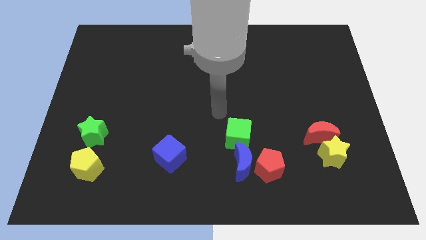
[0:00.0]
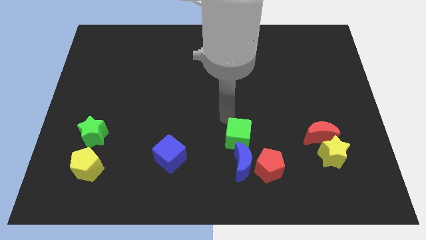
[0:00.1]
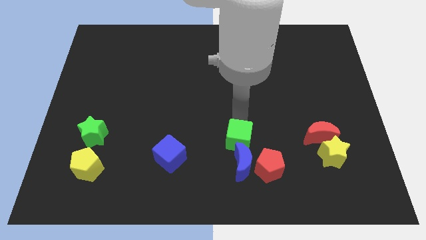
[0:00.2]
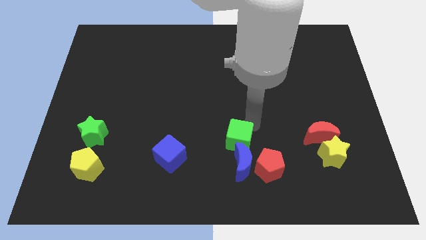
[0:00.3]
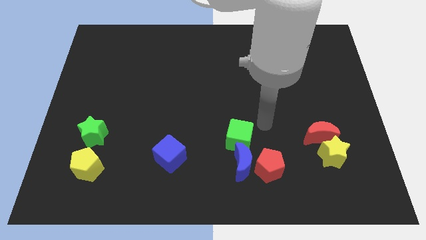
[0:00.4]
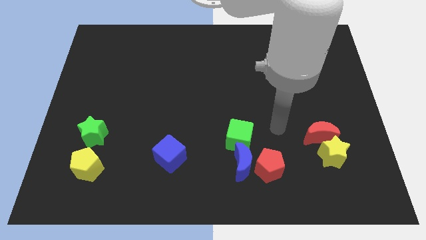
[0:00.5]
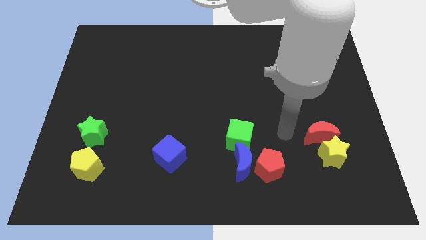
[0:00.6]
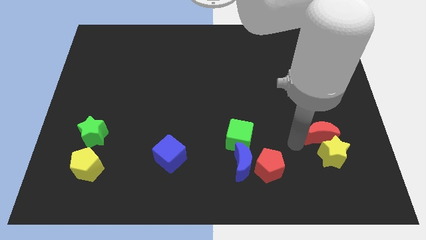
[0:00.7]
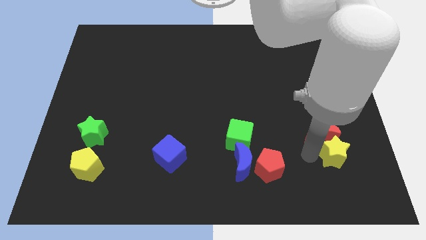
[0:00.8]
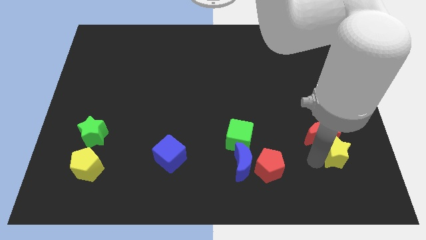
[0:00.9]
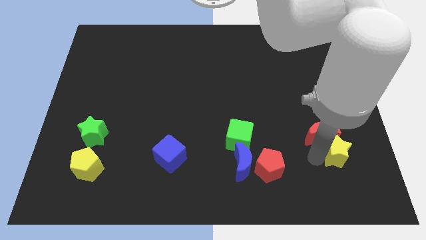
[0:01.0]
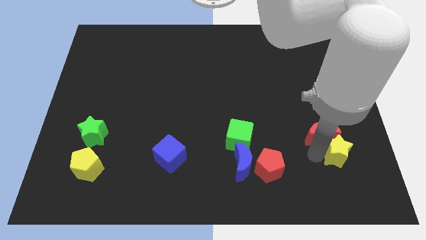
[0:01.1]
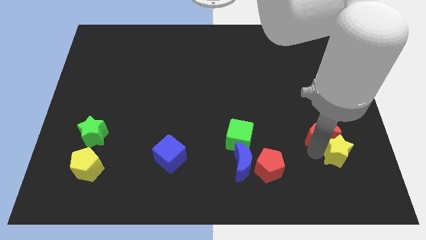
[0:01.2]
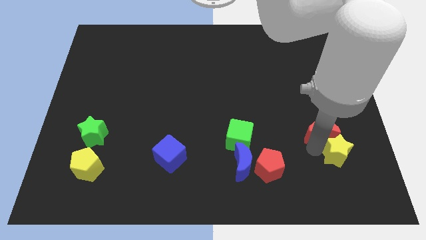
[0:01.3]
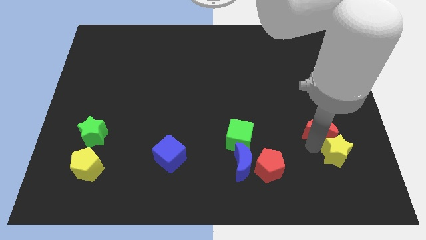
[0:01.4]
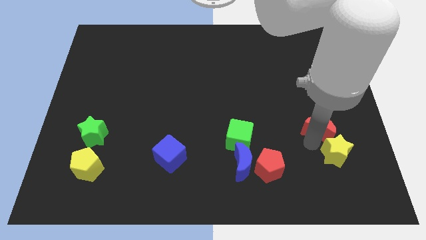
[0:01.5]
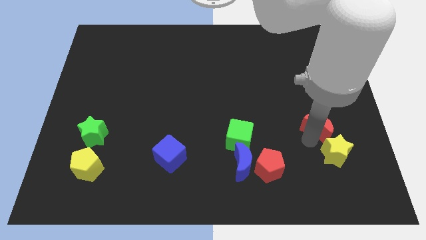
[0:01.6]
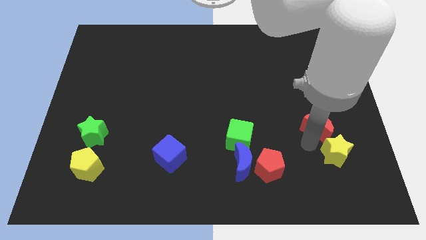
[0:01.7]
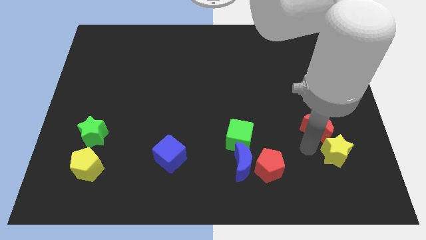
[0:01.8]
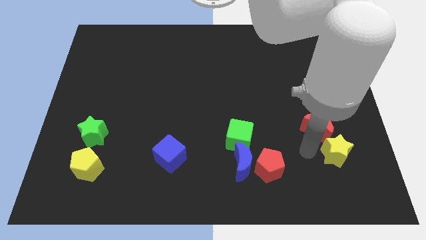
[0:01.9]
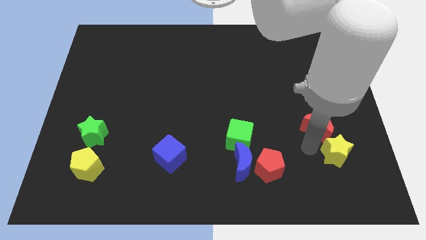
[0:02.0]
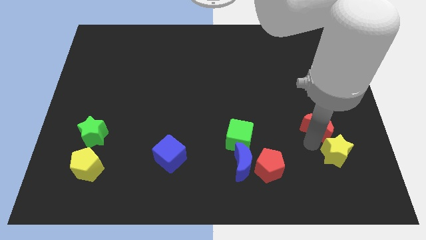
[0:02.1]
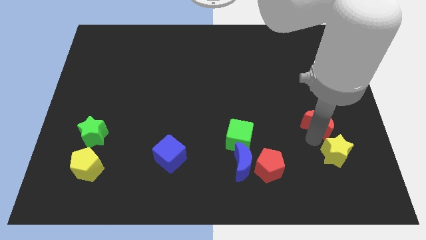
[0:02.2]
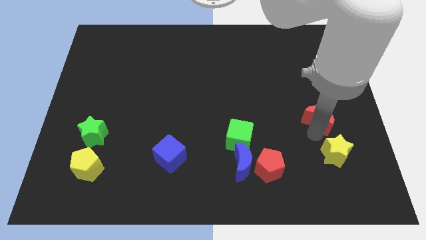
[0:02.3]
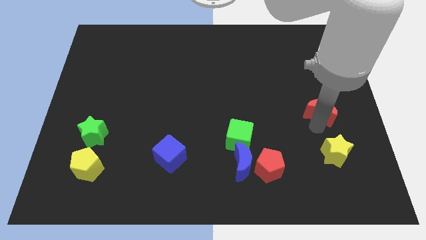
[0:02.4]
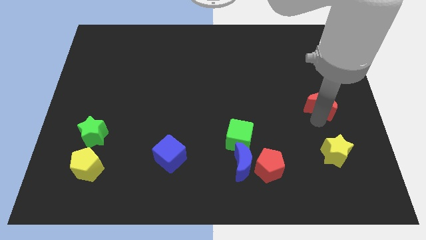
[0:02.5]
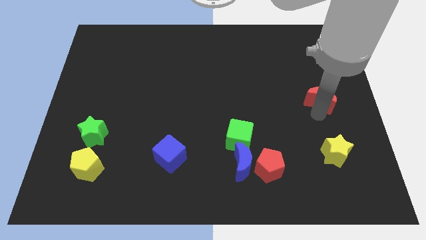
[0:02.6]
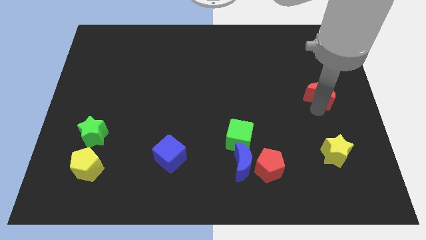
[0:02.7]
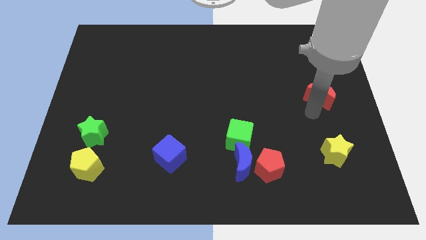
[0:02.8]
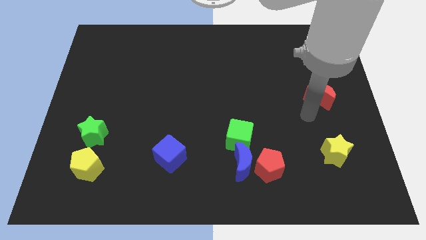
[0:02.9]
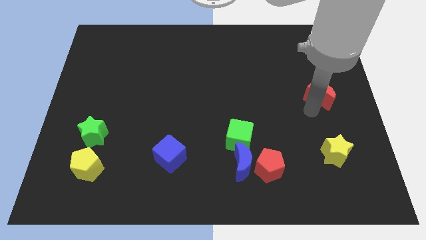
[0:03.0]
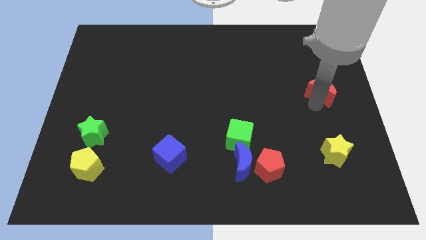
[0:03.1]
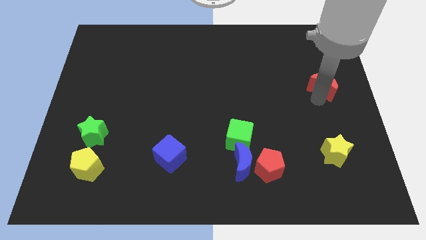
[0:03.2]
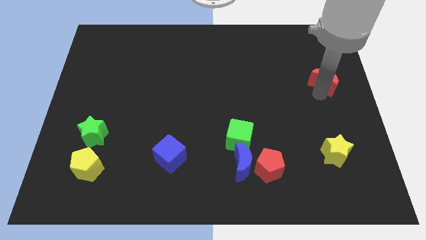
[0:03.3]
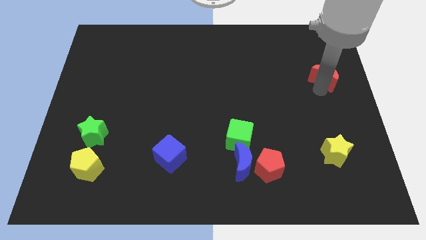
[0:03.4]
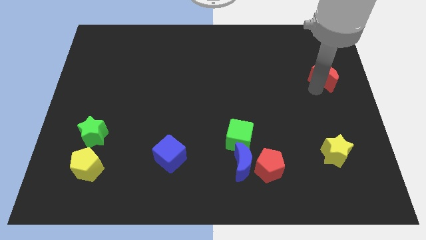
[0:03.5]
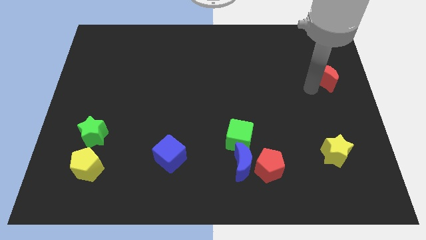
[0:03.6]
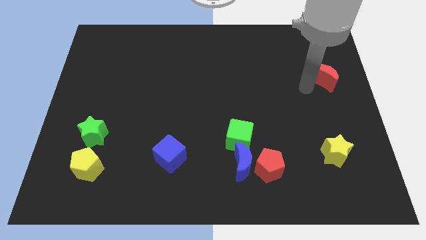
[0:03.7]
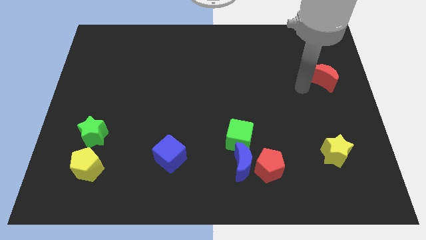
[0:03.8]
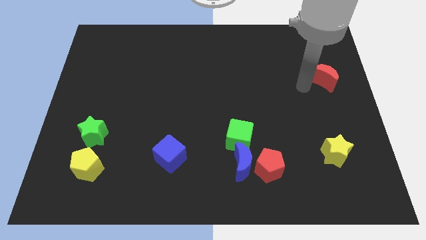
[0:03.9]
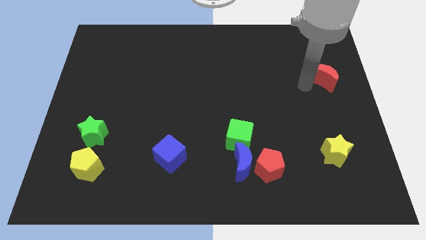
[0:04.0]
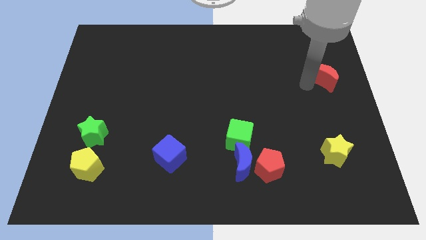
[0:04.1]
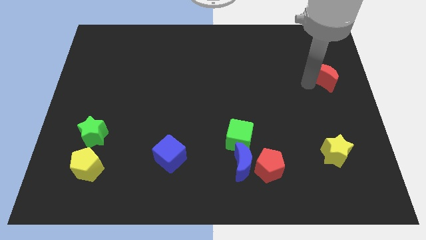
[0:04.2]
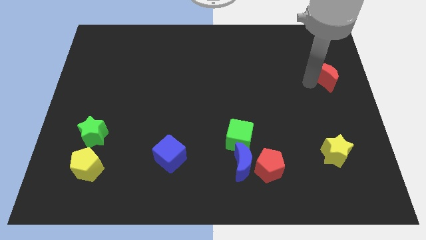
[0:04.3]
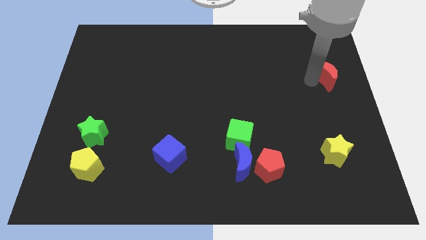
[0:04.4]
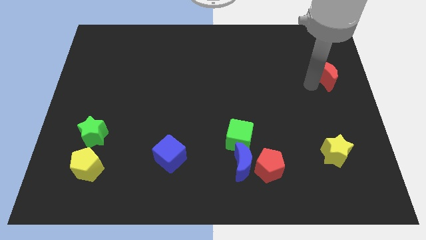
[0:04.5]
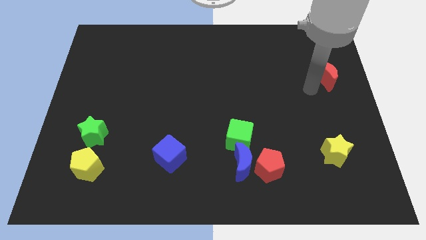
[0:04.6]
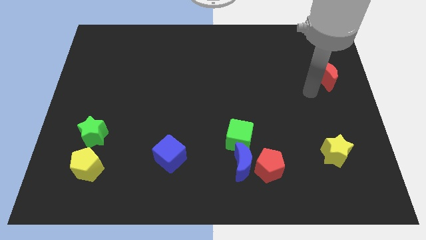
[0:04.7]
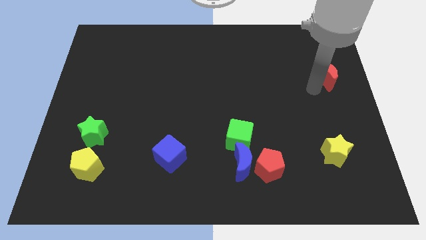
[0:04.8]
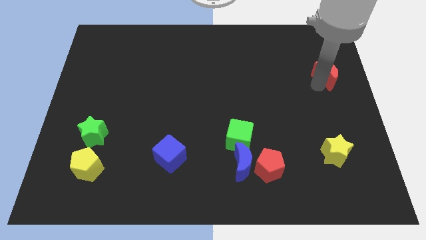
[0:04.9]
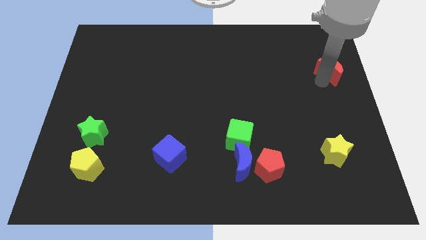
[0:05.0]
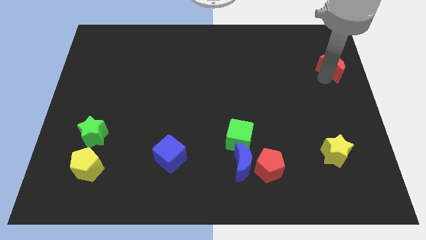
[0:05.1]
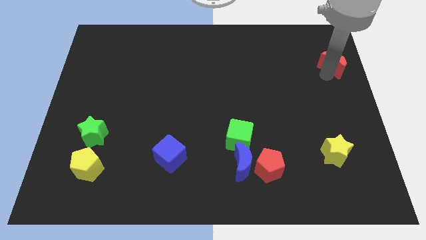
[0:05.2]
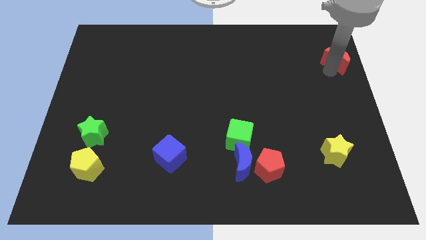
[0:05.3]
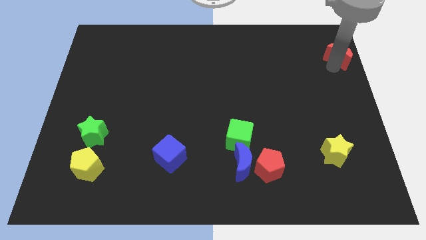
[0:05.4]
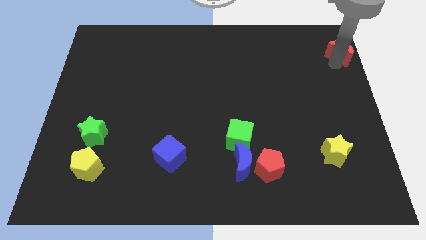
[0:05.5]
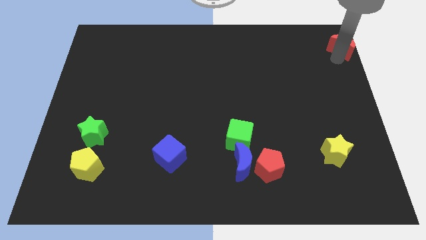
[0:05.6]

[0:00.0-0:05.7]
push the red moon to the top right of the board
